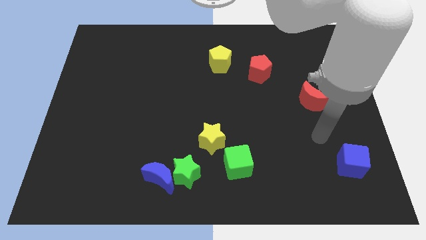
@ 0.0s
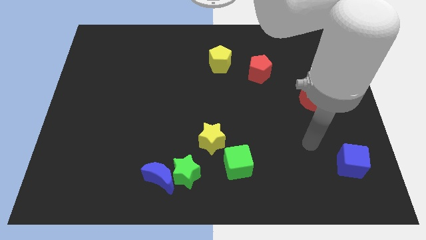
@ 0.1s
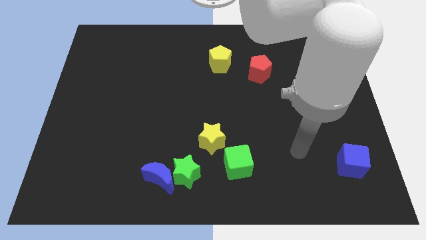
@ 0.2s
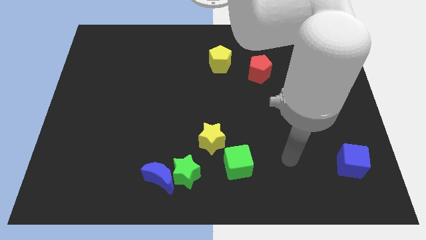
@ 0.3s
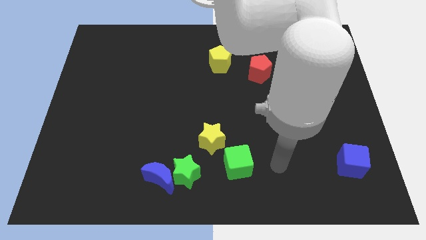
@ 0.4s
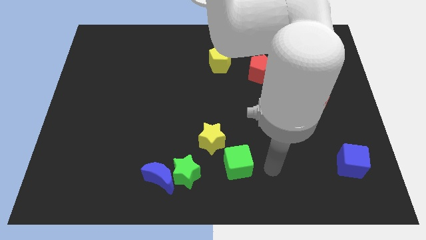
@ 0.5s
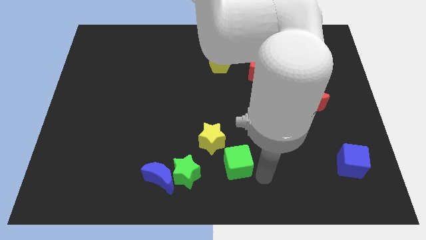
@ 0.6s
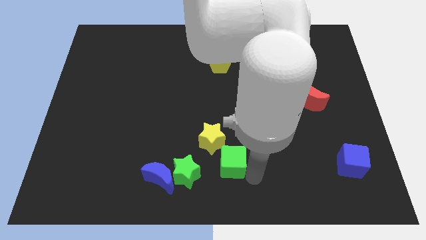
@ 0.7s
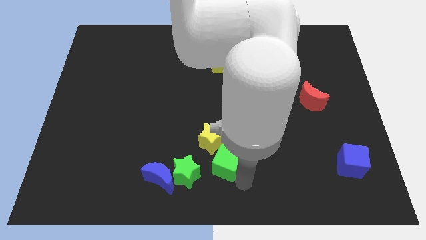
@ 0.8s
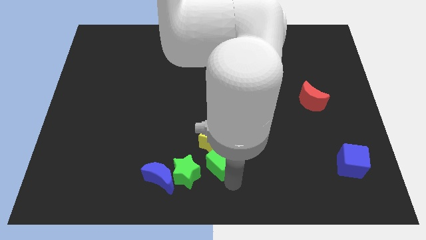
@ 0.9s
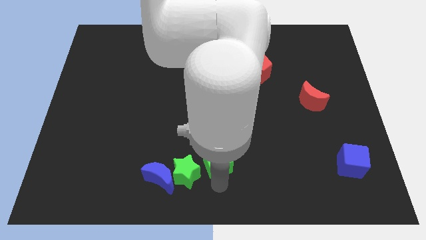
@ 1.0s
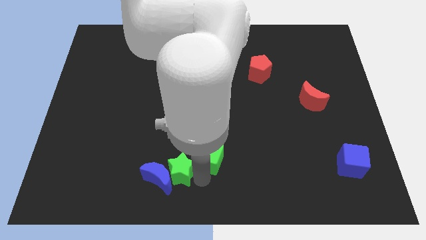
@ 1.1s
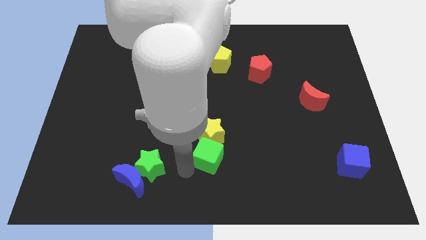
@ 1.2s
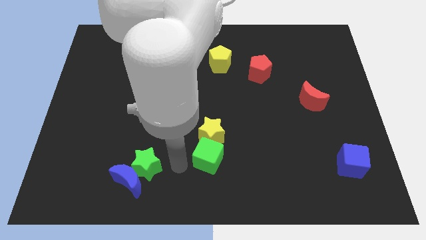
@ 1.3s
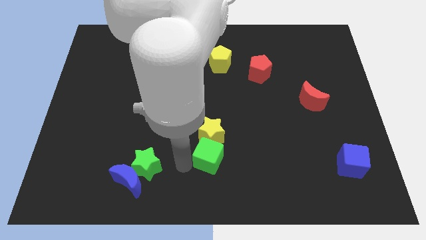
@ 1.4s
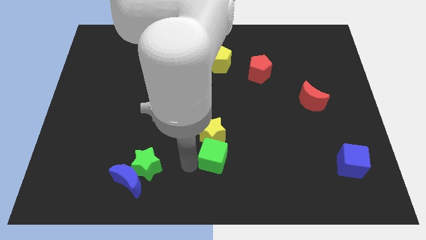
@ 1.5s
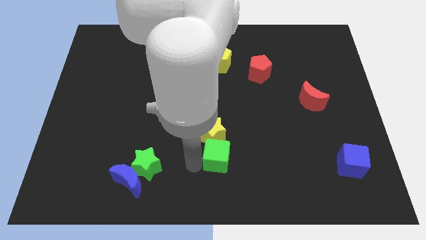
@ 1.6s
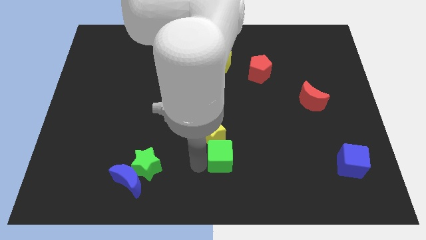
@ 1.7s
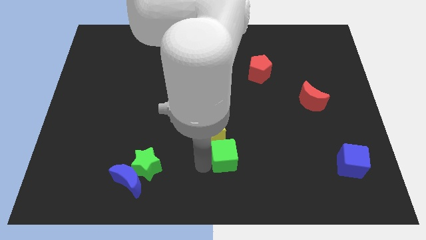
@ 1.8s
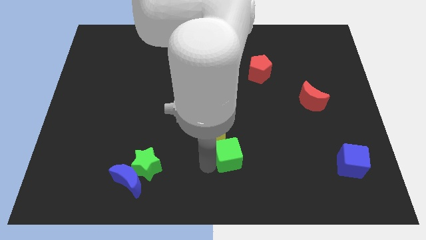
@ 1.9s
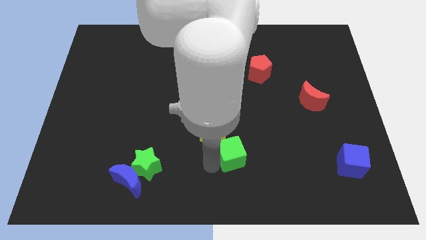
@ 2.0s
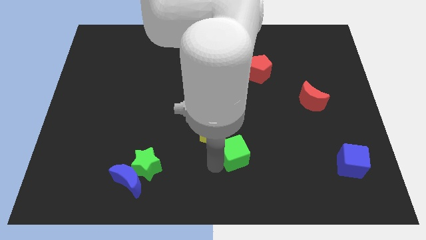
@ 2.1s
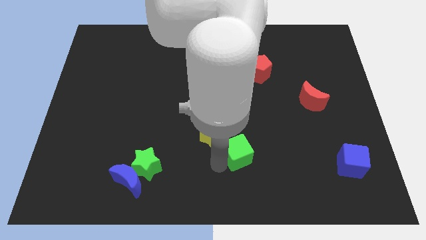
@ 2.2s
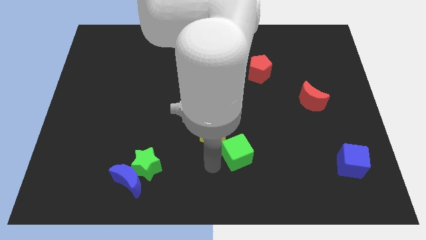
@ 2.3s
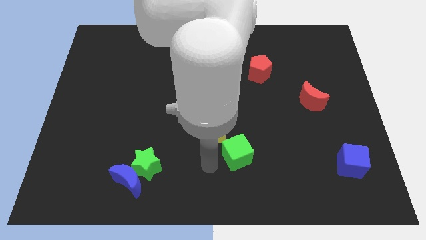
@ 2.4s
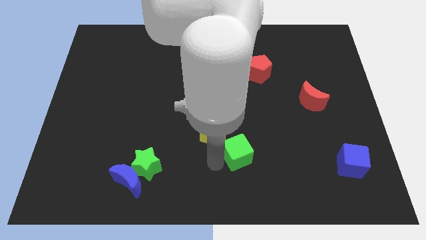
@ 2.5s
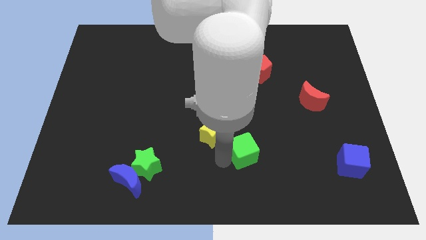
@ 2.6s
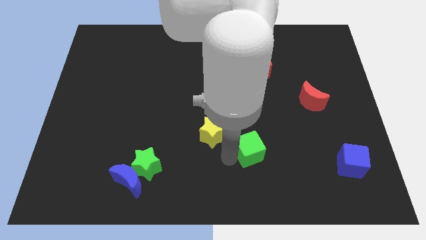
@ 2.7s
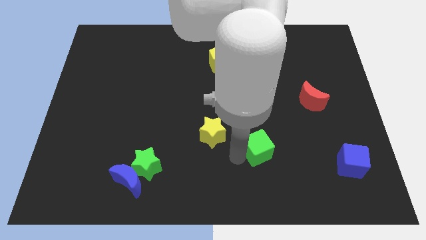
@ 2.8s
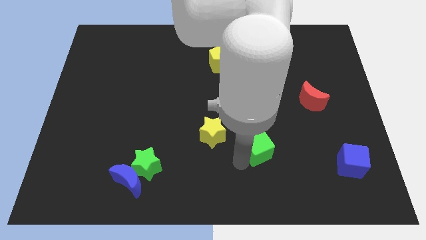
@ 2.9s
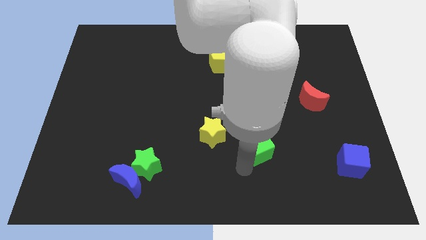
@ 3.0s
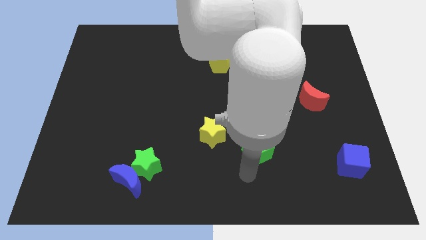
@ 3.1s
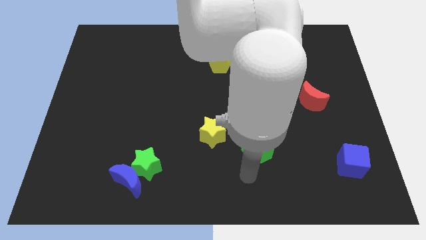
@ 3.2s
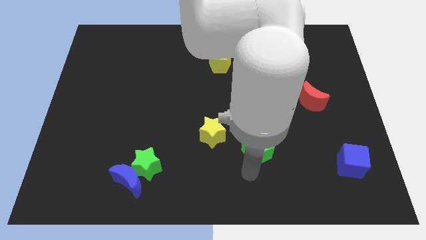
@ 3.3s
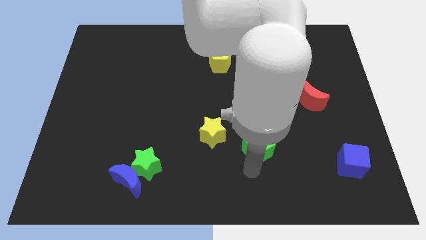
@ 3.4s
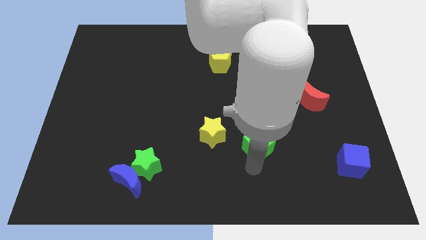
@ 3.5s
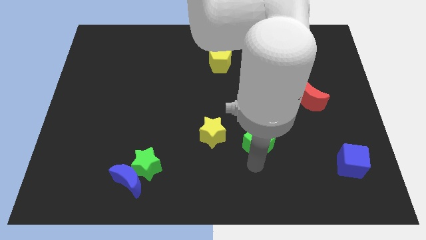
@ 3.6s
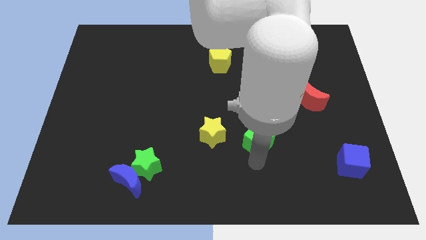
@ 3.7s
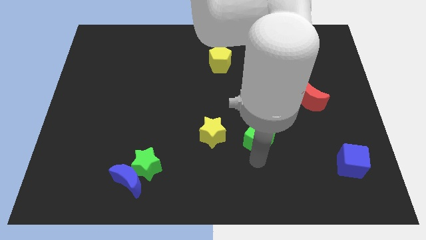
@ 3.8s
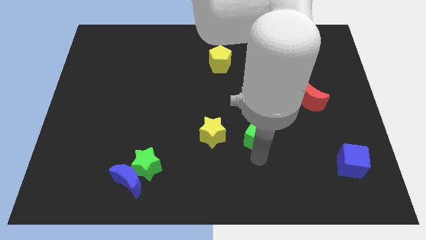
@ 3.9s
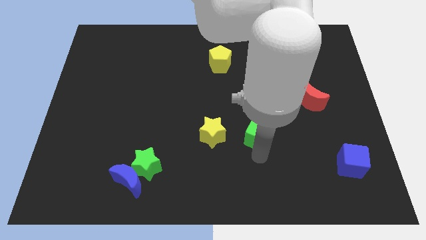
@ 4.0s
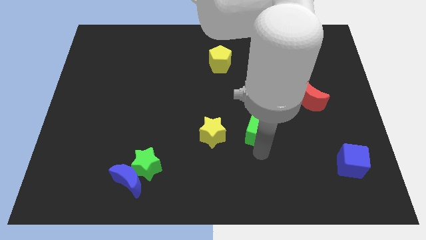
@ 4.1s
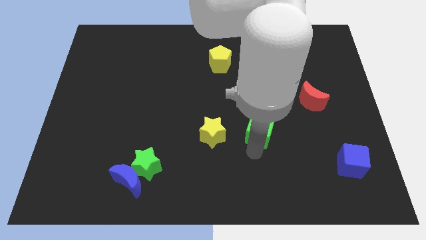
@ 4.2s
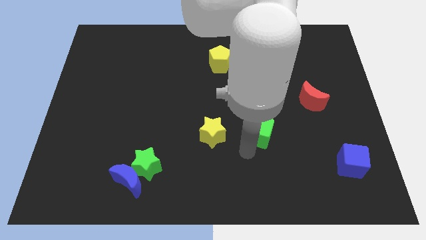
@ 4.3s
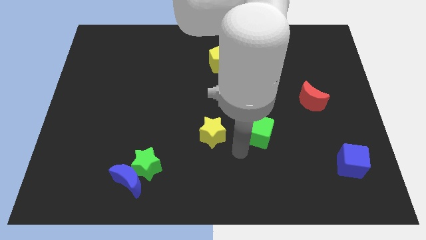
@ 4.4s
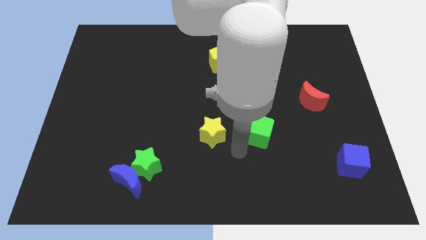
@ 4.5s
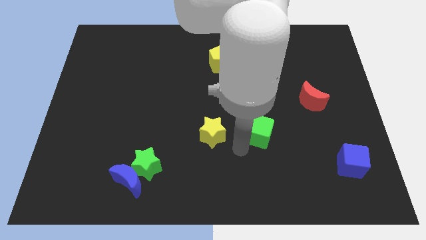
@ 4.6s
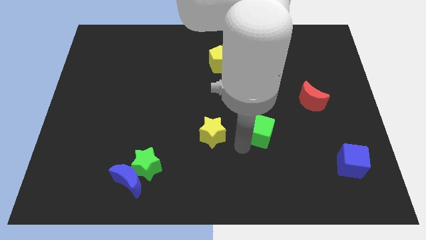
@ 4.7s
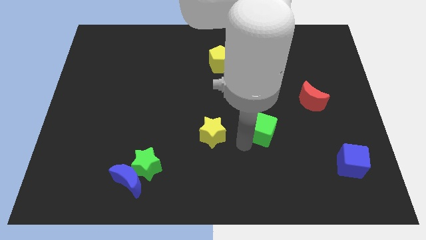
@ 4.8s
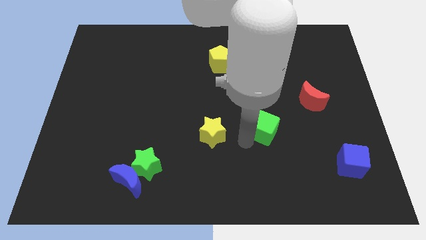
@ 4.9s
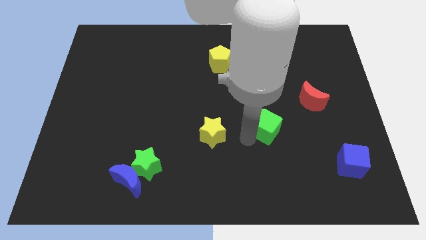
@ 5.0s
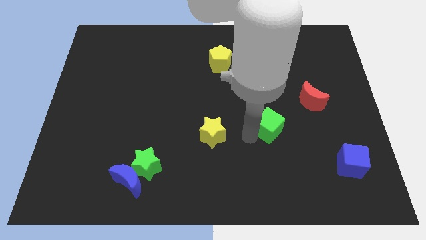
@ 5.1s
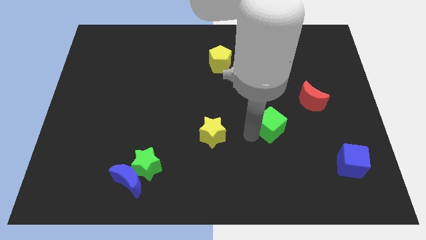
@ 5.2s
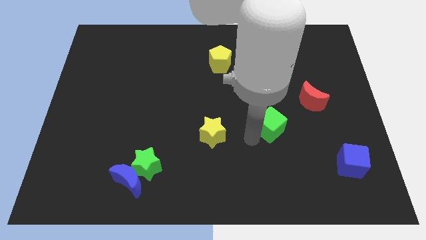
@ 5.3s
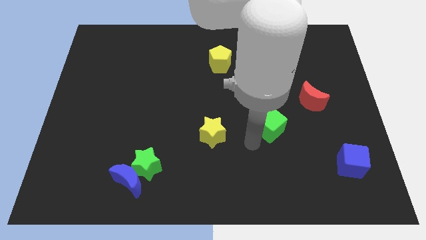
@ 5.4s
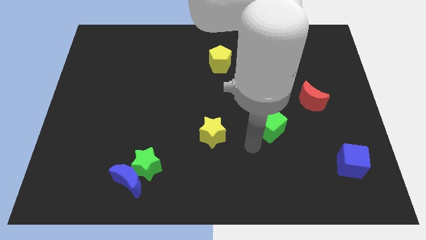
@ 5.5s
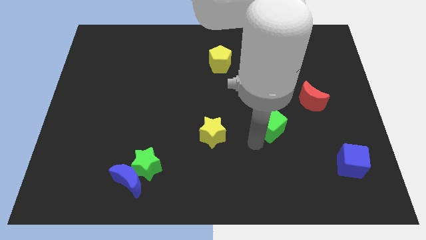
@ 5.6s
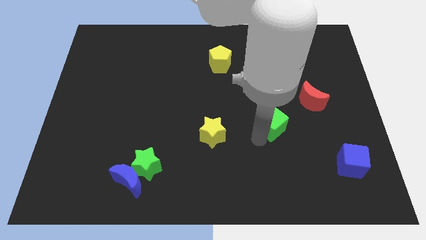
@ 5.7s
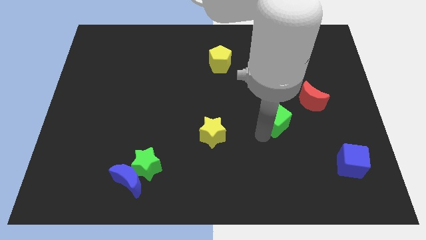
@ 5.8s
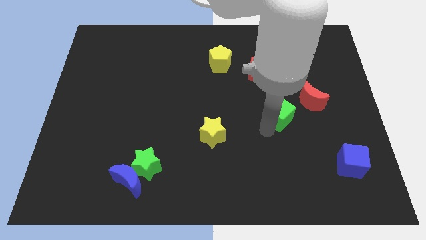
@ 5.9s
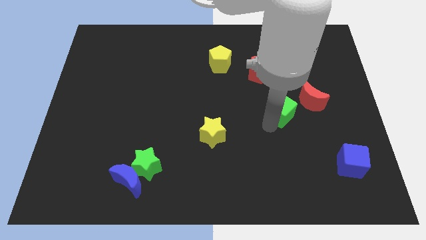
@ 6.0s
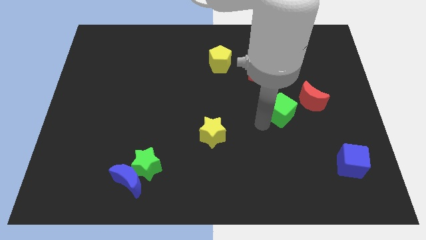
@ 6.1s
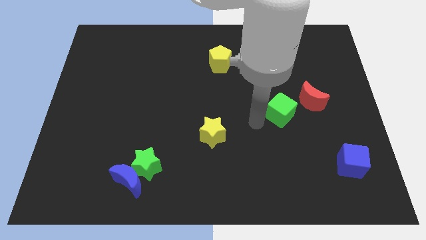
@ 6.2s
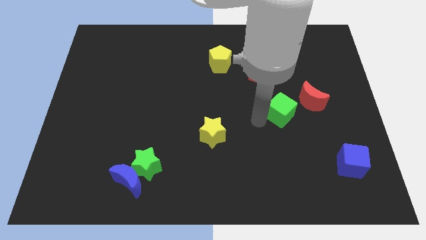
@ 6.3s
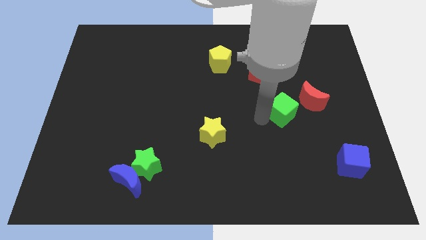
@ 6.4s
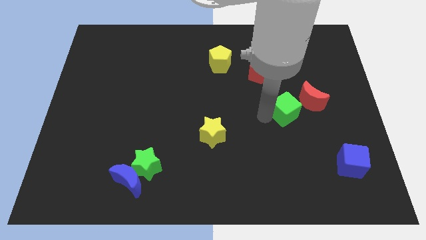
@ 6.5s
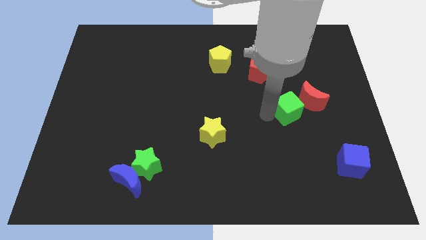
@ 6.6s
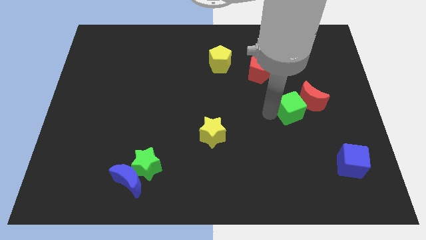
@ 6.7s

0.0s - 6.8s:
push the green cube next to the red moon

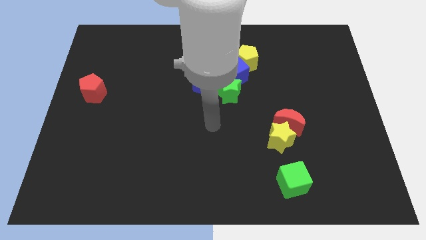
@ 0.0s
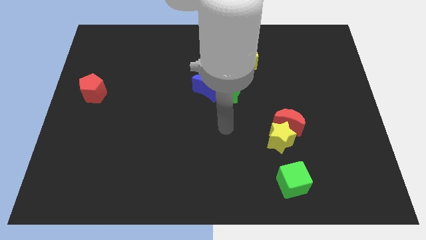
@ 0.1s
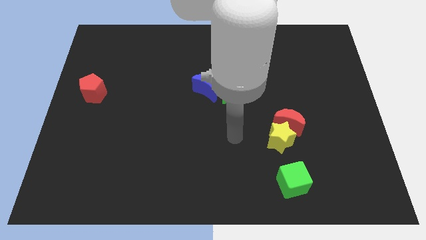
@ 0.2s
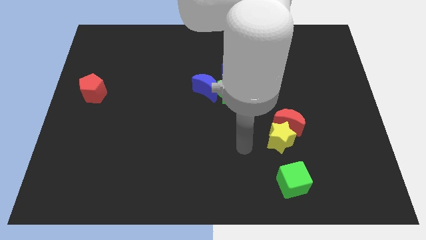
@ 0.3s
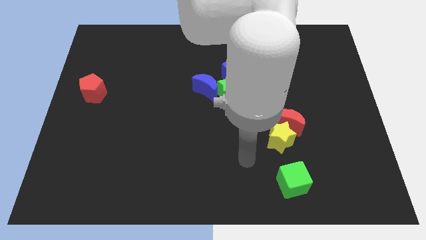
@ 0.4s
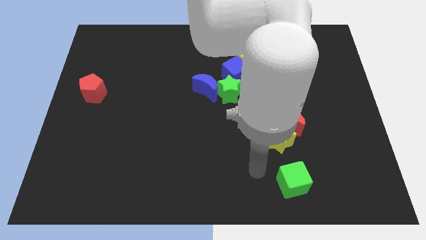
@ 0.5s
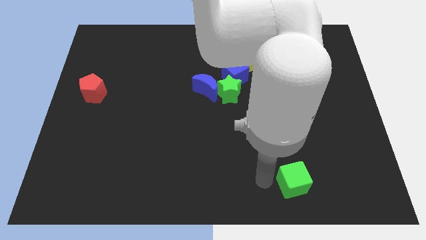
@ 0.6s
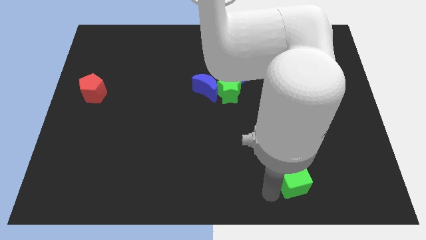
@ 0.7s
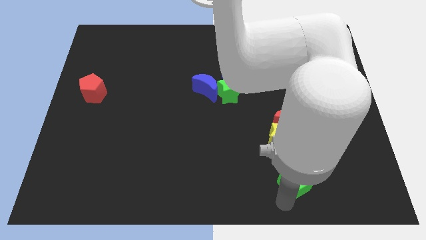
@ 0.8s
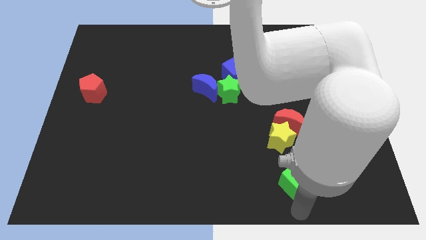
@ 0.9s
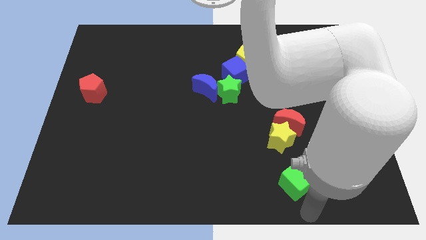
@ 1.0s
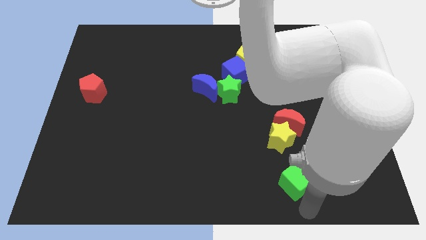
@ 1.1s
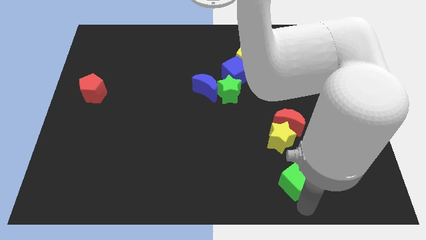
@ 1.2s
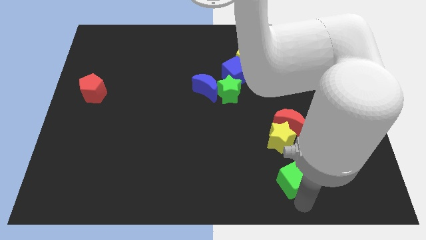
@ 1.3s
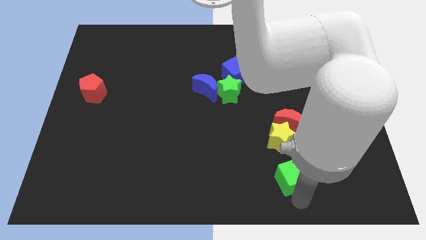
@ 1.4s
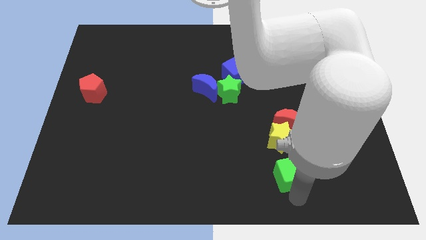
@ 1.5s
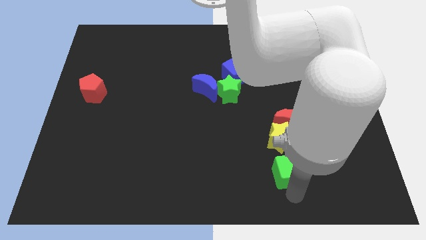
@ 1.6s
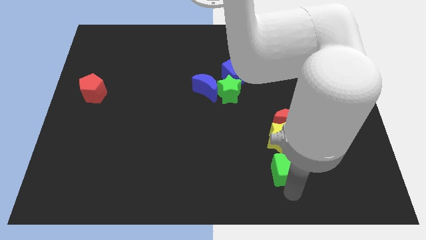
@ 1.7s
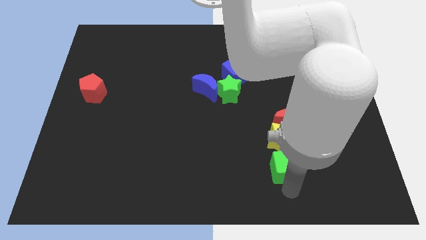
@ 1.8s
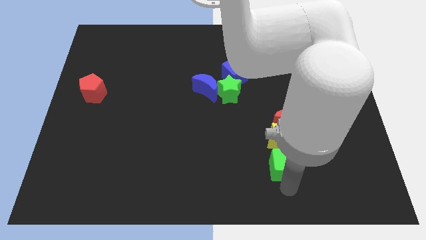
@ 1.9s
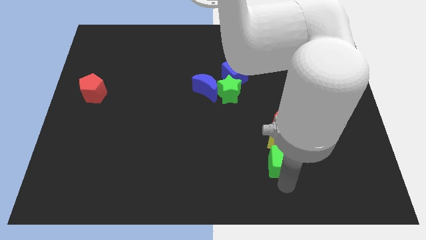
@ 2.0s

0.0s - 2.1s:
push the green cube next to the yellow star
